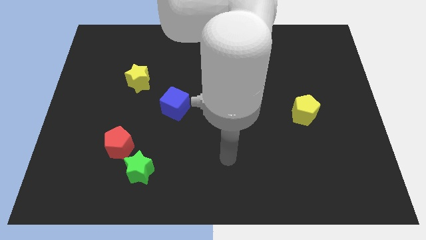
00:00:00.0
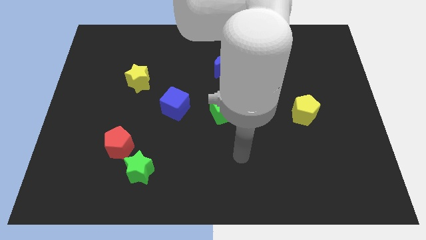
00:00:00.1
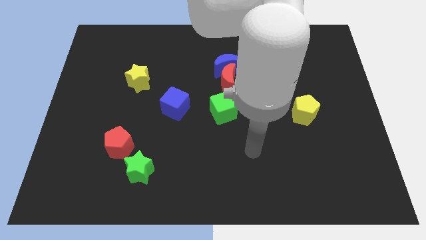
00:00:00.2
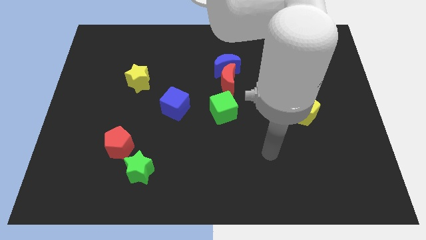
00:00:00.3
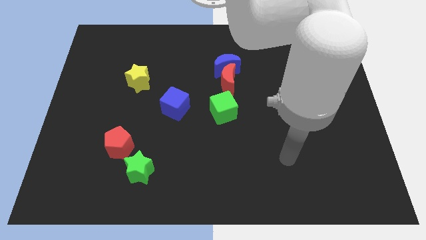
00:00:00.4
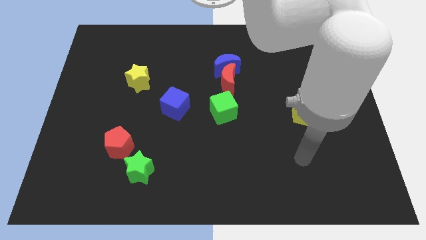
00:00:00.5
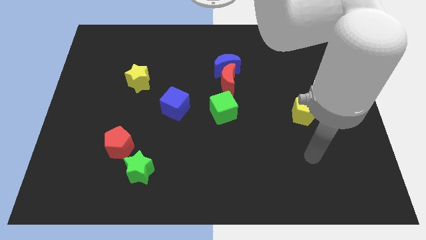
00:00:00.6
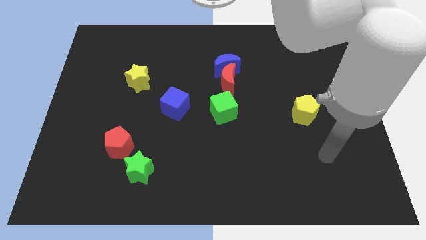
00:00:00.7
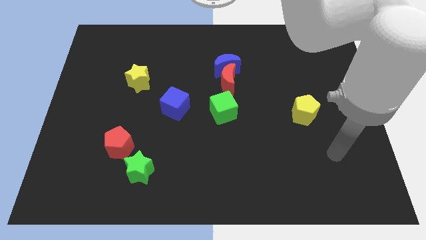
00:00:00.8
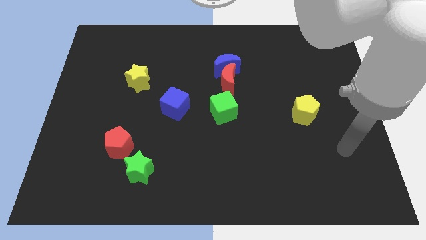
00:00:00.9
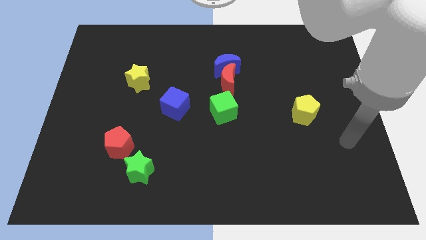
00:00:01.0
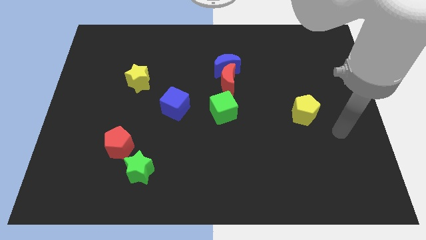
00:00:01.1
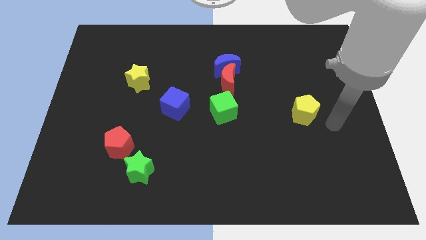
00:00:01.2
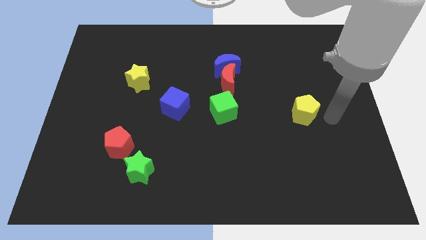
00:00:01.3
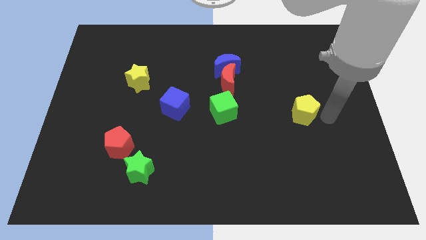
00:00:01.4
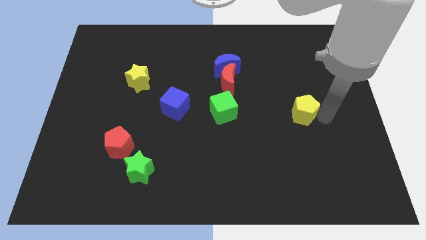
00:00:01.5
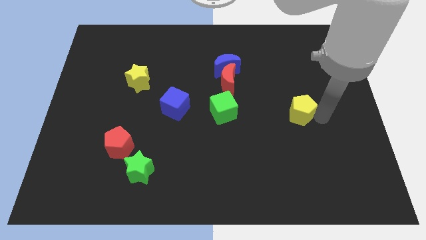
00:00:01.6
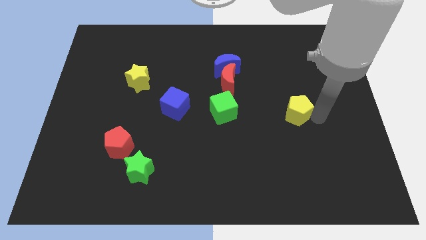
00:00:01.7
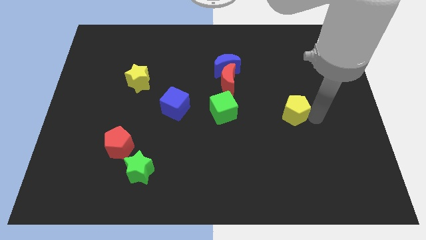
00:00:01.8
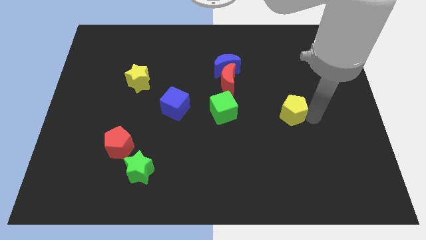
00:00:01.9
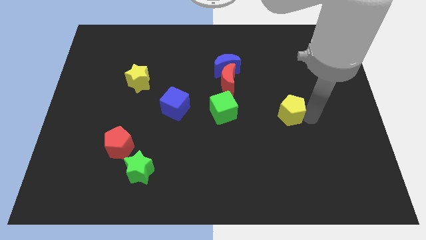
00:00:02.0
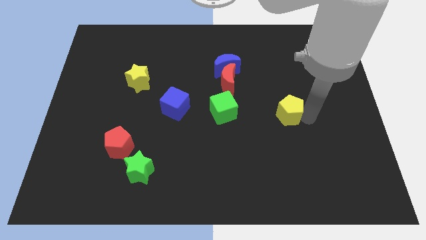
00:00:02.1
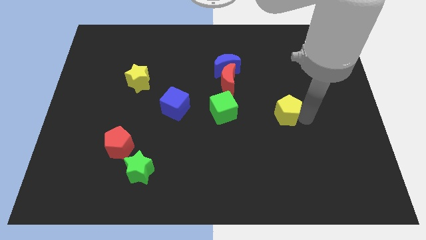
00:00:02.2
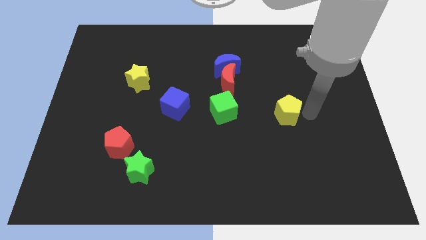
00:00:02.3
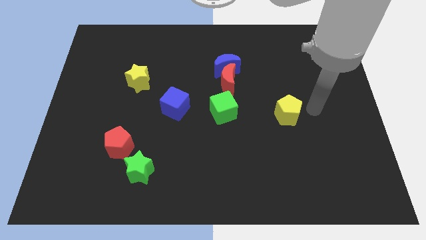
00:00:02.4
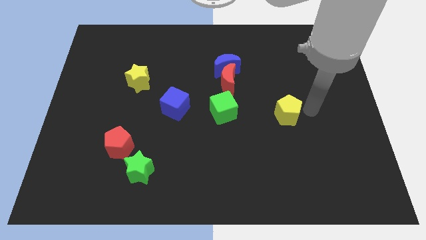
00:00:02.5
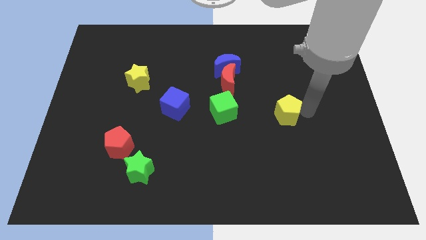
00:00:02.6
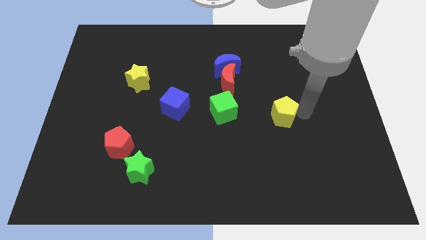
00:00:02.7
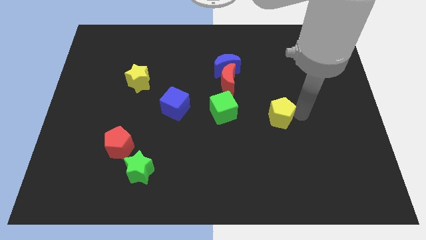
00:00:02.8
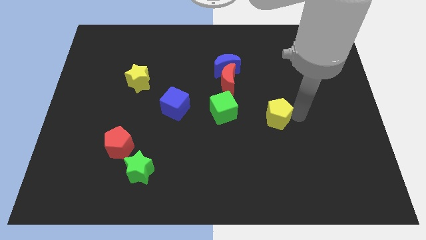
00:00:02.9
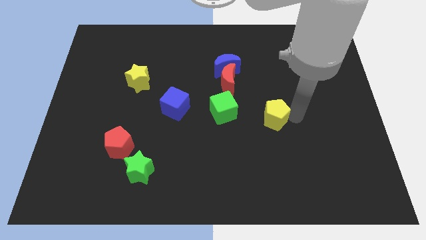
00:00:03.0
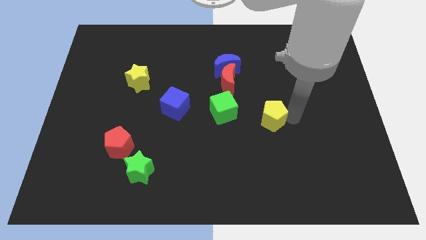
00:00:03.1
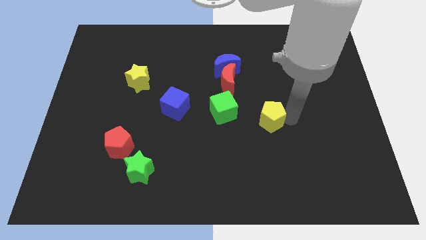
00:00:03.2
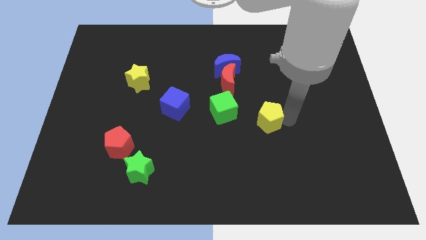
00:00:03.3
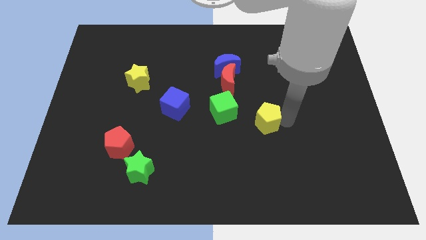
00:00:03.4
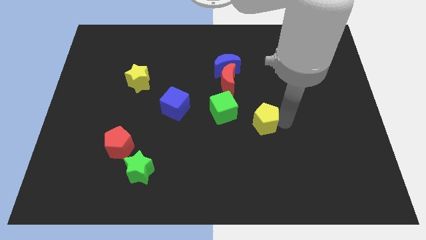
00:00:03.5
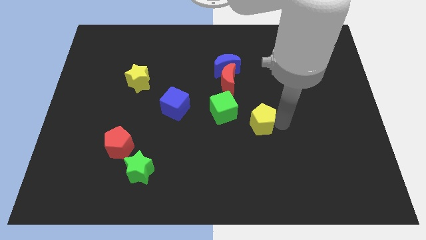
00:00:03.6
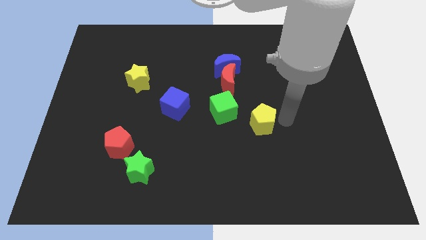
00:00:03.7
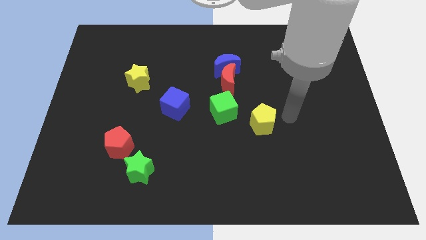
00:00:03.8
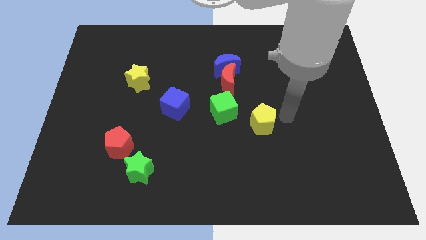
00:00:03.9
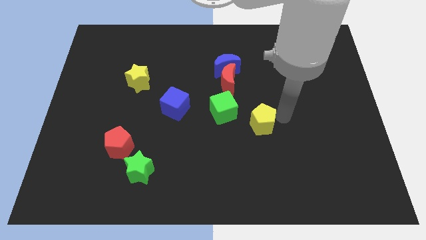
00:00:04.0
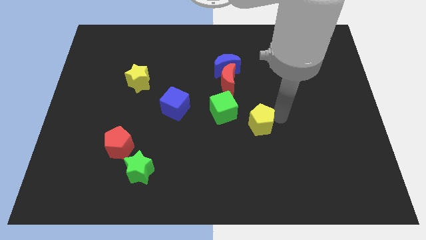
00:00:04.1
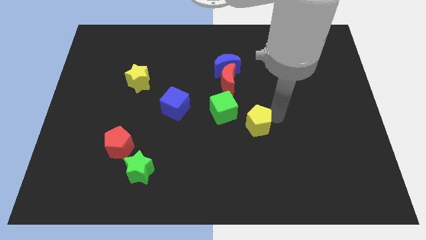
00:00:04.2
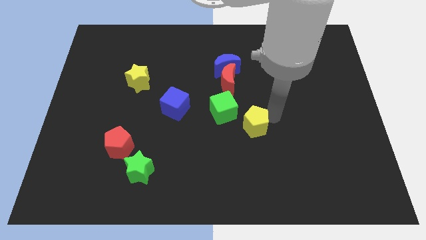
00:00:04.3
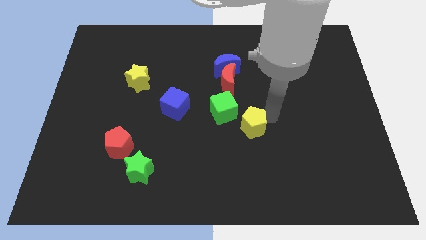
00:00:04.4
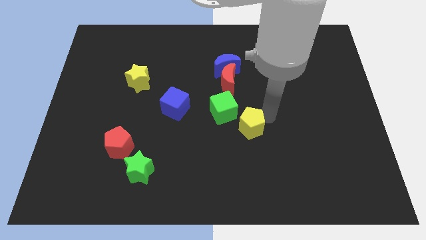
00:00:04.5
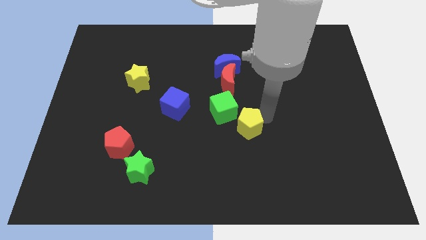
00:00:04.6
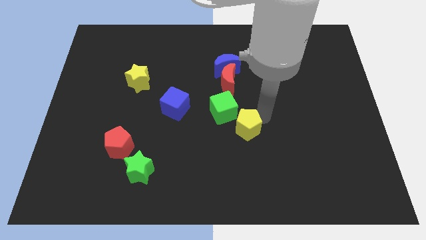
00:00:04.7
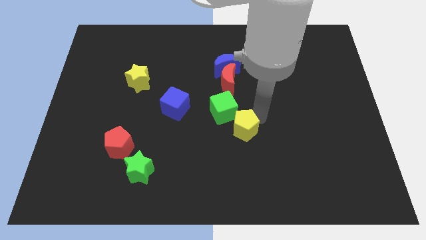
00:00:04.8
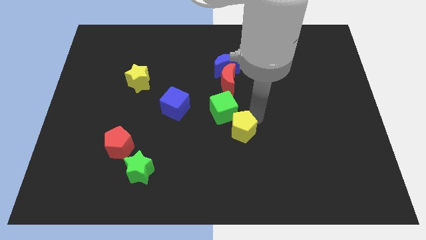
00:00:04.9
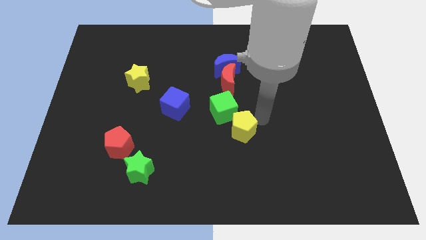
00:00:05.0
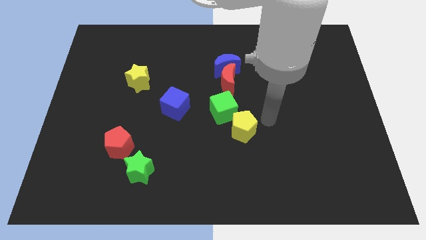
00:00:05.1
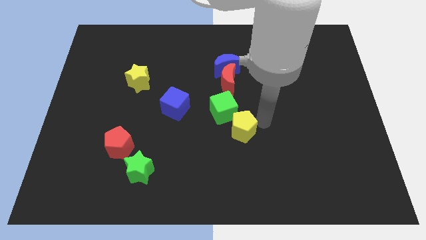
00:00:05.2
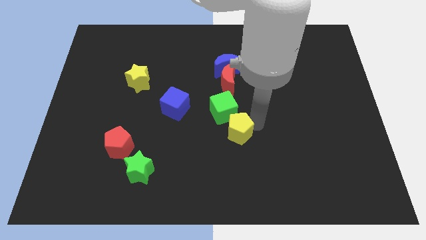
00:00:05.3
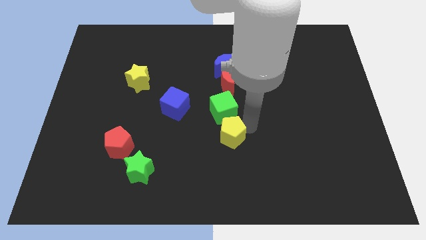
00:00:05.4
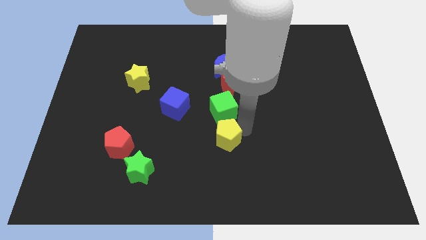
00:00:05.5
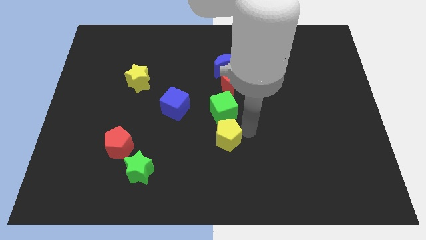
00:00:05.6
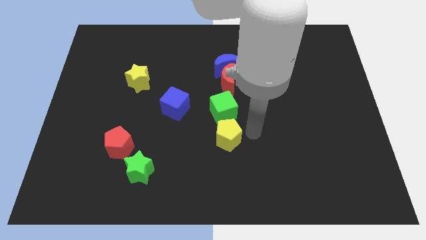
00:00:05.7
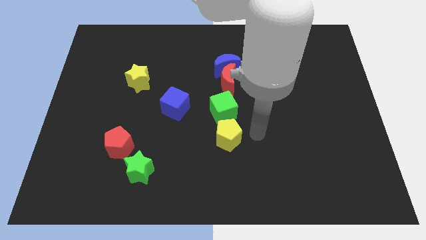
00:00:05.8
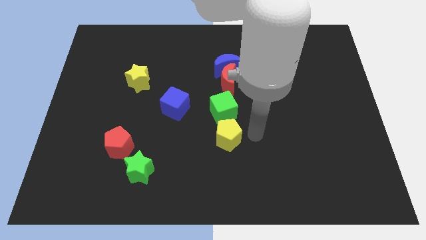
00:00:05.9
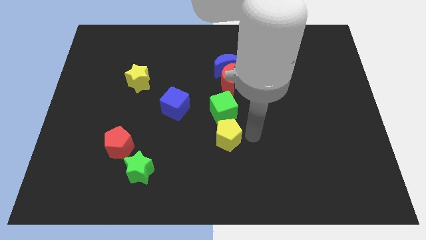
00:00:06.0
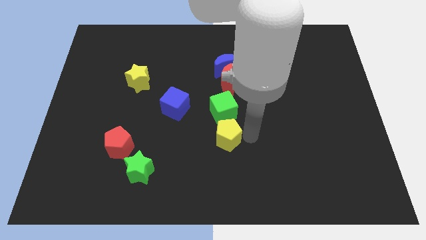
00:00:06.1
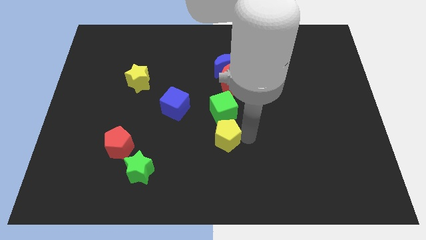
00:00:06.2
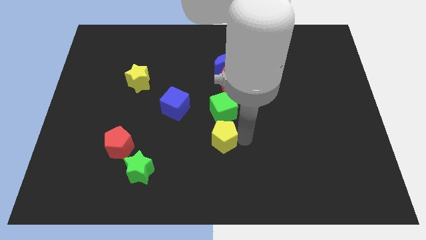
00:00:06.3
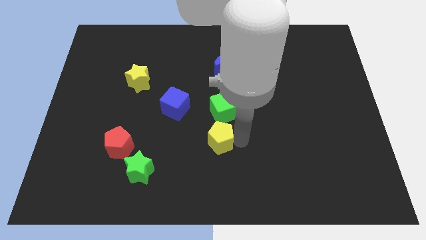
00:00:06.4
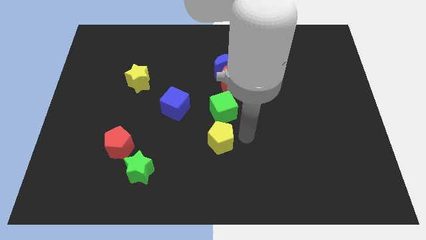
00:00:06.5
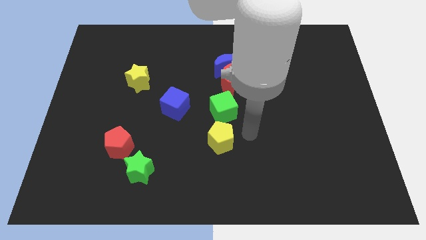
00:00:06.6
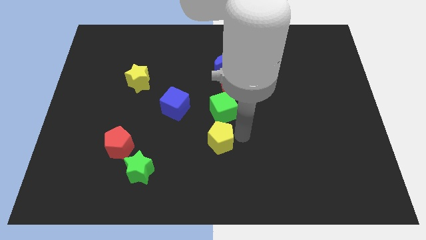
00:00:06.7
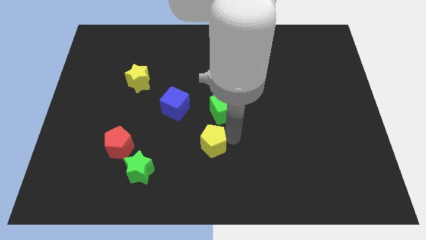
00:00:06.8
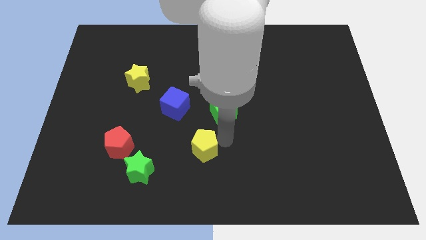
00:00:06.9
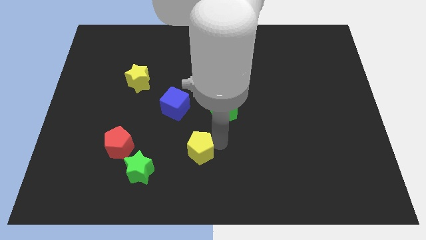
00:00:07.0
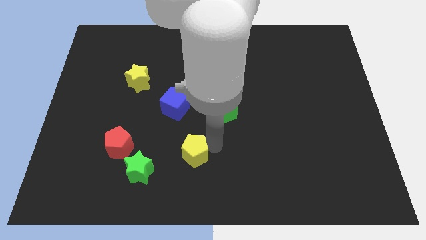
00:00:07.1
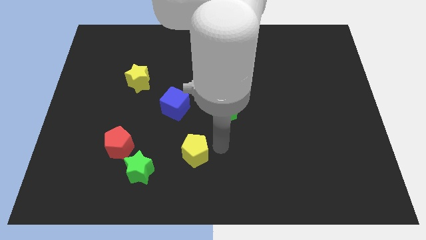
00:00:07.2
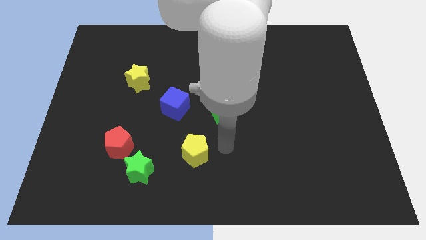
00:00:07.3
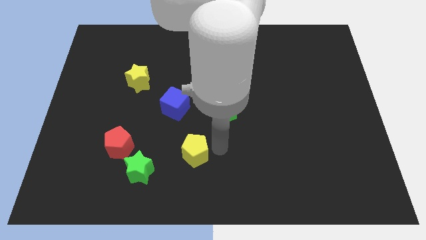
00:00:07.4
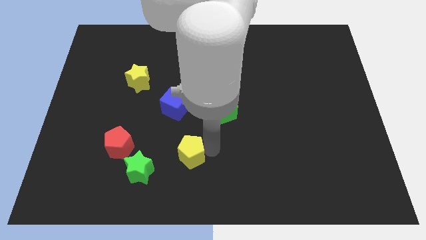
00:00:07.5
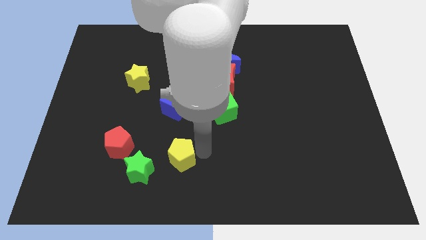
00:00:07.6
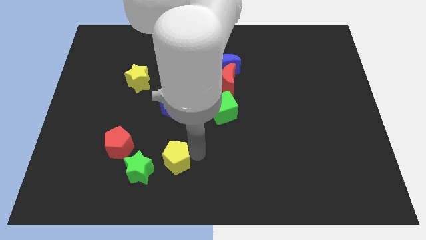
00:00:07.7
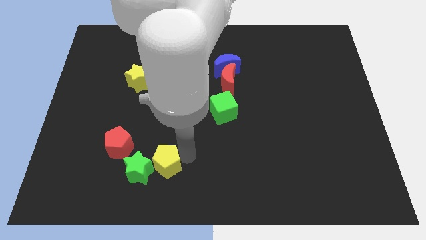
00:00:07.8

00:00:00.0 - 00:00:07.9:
slide the yellow pentagon close to the green star
